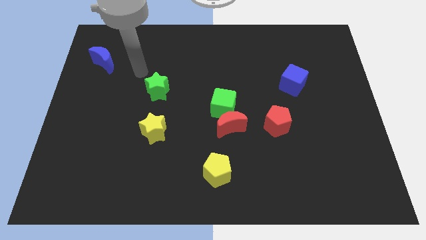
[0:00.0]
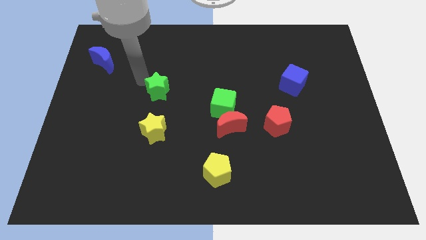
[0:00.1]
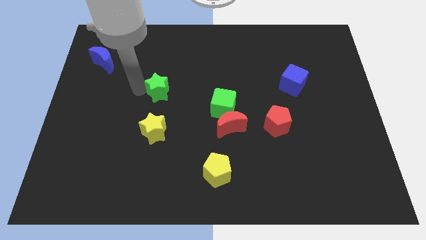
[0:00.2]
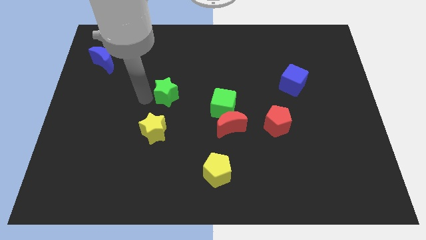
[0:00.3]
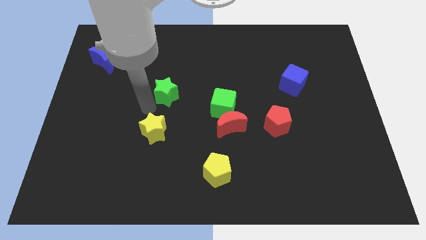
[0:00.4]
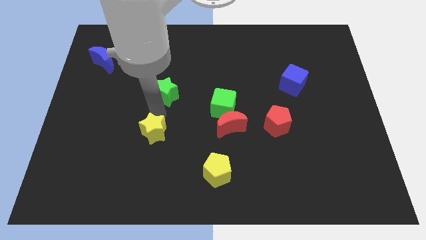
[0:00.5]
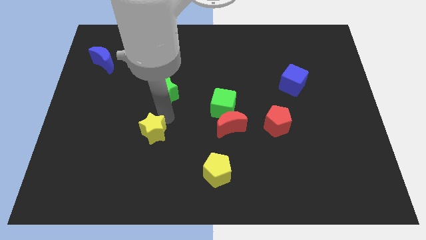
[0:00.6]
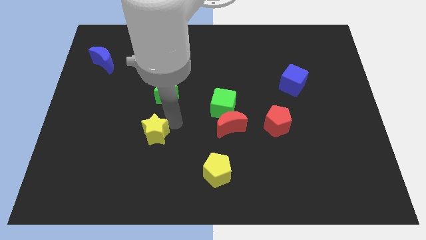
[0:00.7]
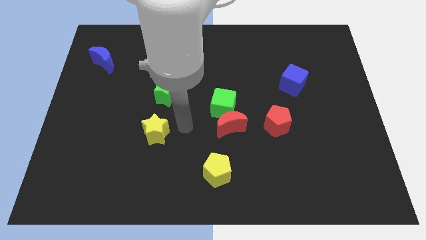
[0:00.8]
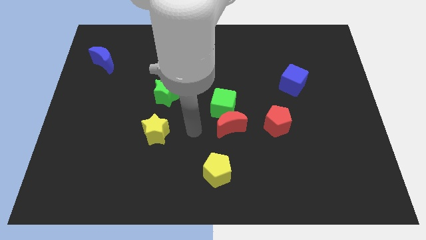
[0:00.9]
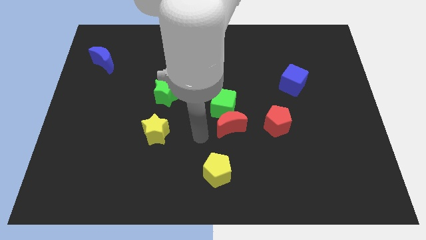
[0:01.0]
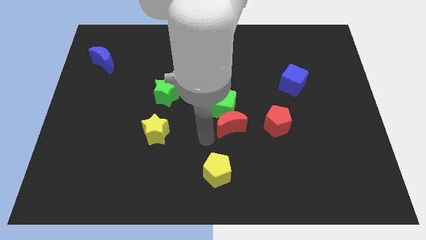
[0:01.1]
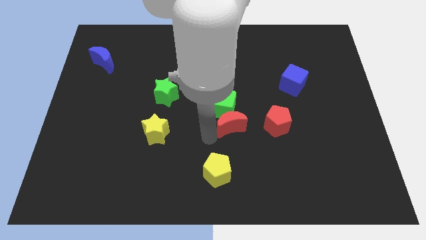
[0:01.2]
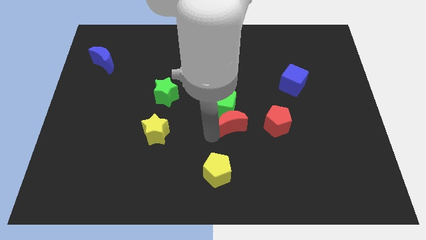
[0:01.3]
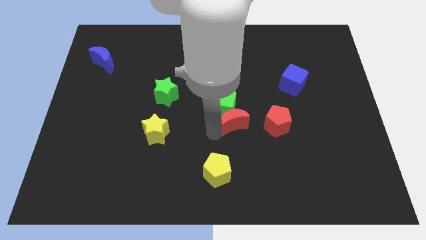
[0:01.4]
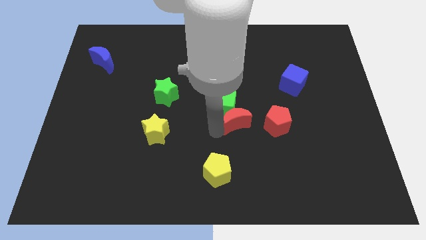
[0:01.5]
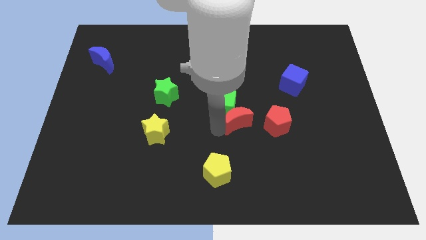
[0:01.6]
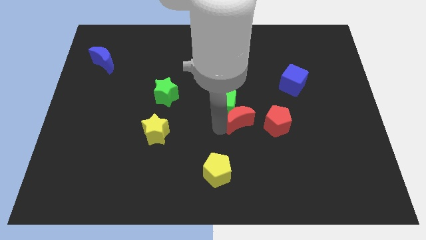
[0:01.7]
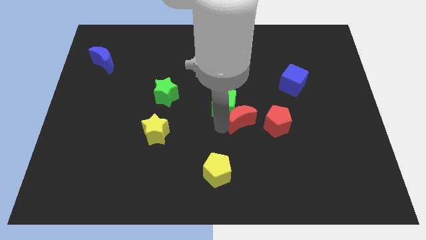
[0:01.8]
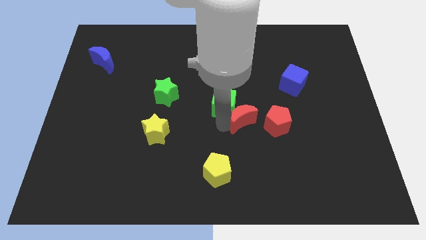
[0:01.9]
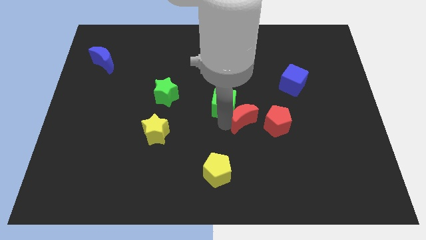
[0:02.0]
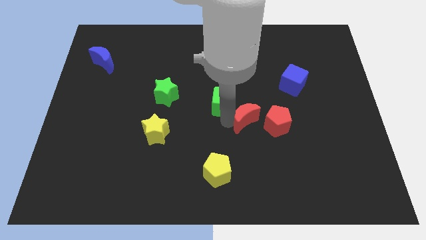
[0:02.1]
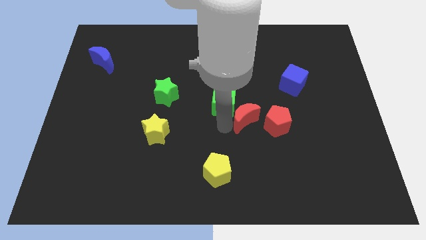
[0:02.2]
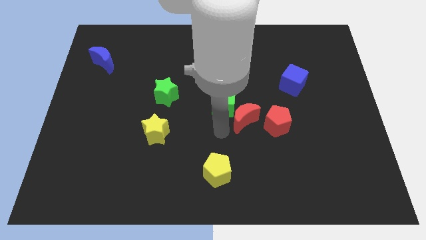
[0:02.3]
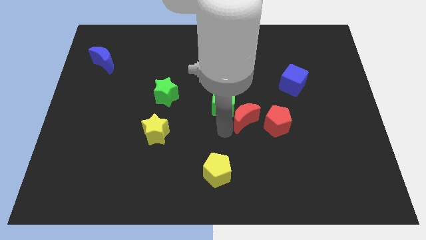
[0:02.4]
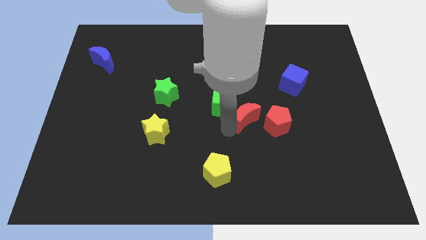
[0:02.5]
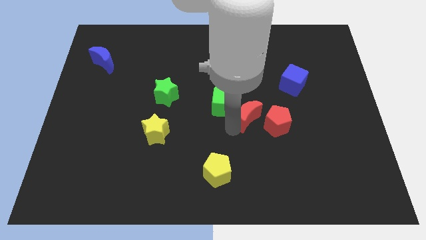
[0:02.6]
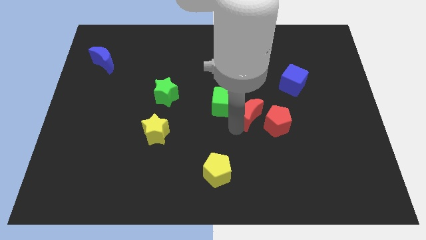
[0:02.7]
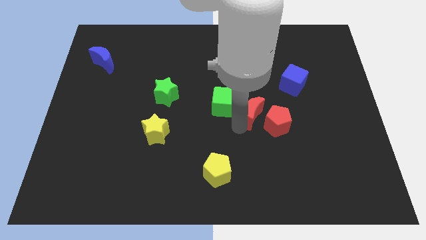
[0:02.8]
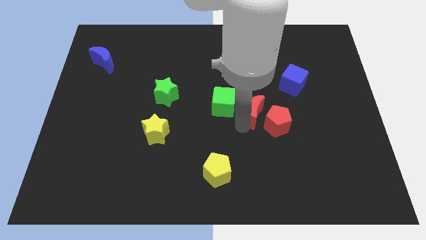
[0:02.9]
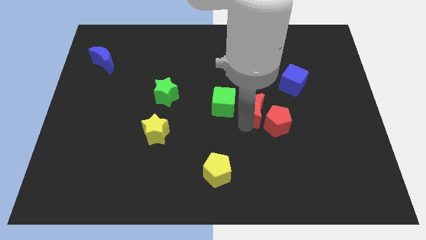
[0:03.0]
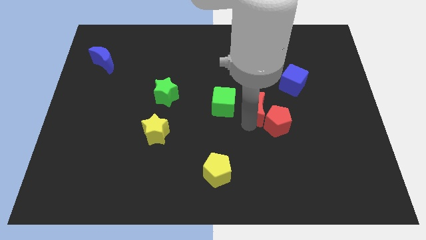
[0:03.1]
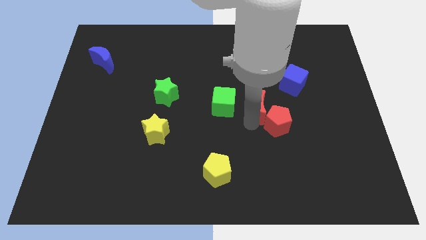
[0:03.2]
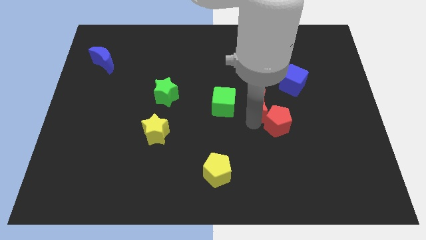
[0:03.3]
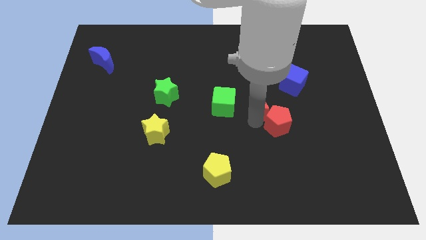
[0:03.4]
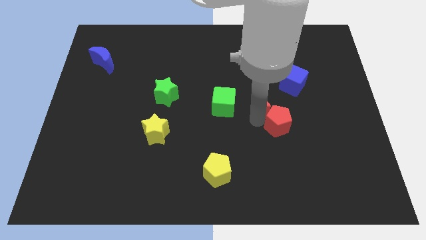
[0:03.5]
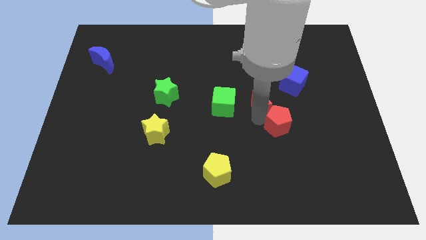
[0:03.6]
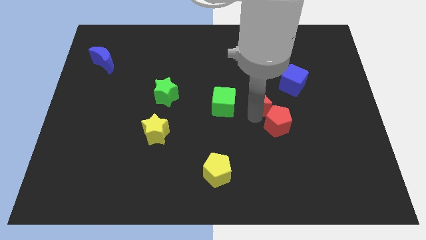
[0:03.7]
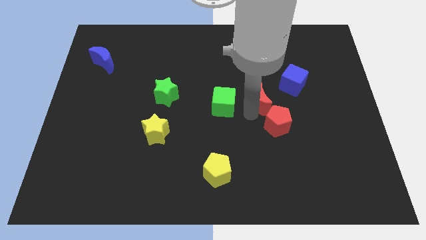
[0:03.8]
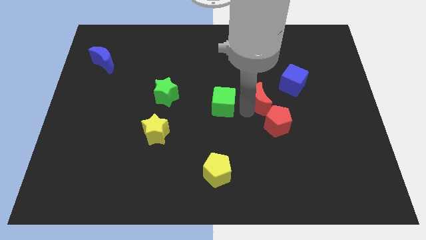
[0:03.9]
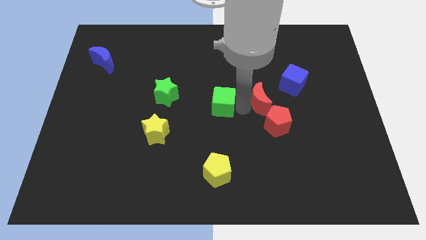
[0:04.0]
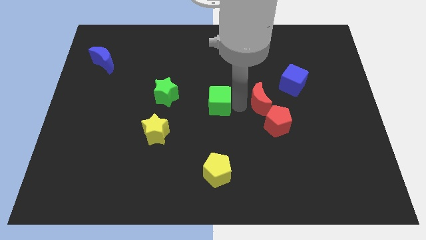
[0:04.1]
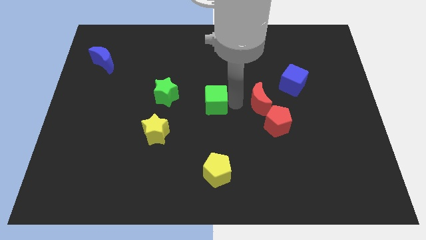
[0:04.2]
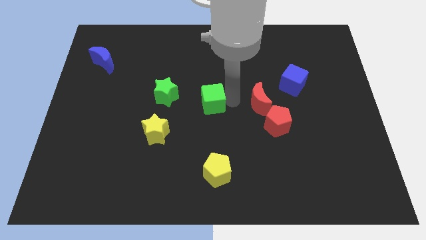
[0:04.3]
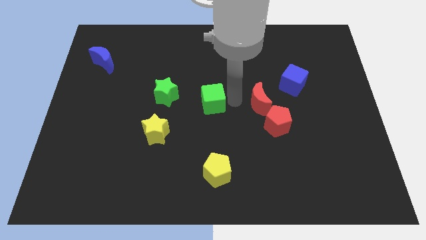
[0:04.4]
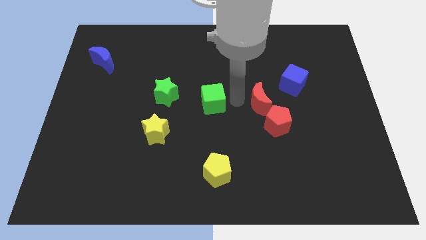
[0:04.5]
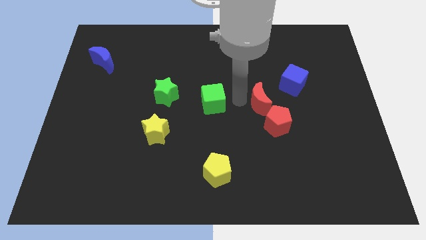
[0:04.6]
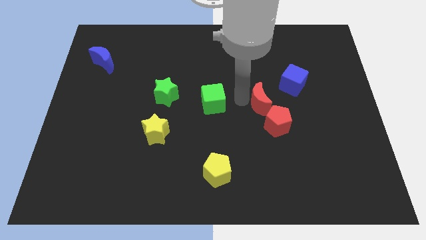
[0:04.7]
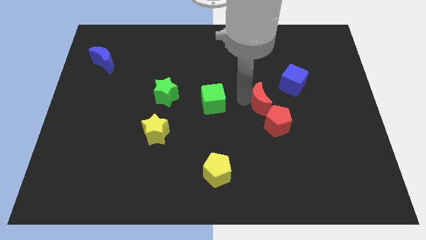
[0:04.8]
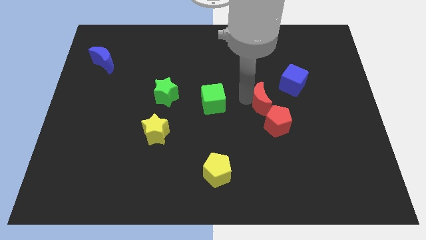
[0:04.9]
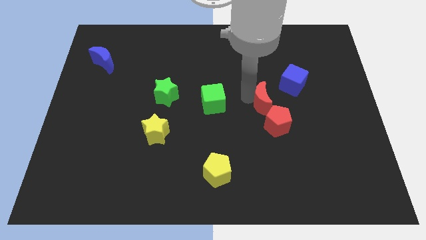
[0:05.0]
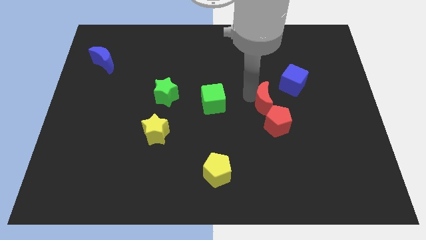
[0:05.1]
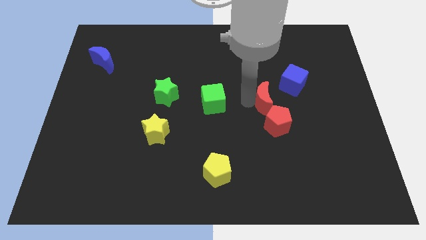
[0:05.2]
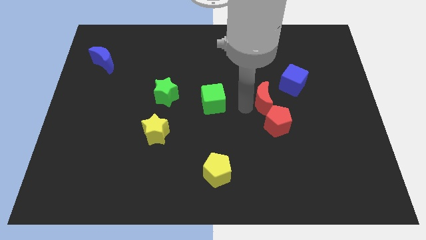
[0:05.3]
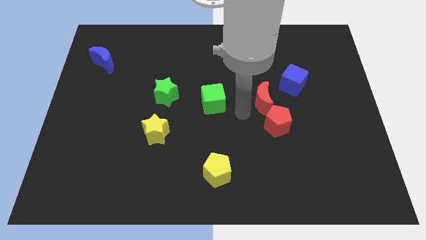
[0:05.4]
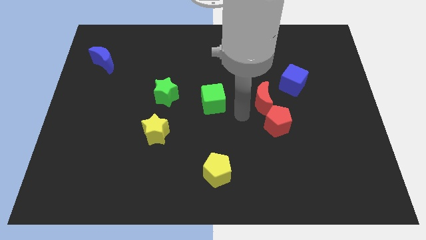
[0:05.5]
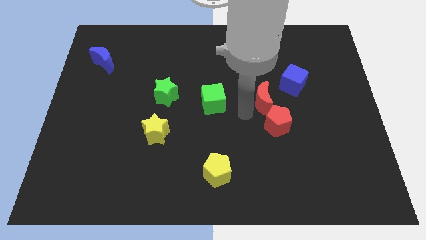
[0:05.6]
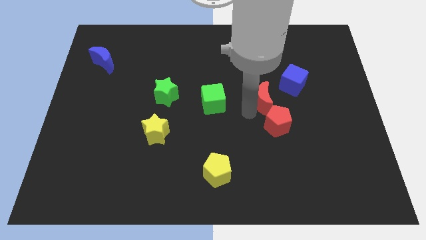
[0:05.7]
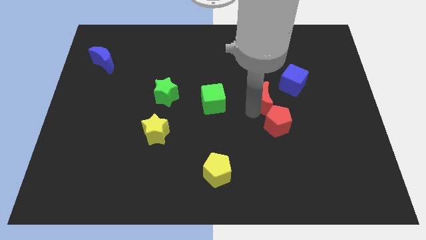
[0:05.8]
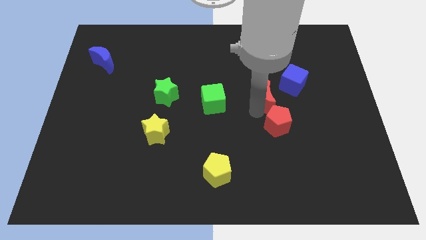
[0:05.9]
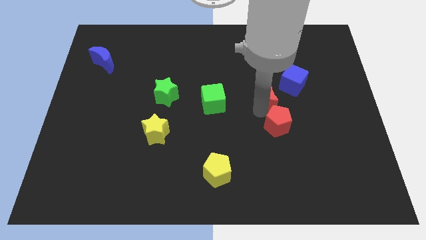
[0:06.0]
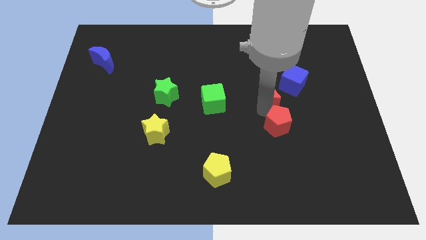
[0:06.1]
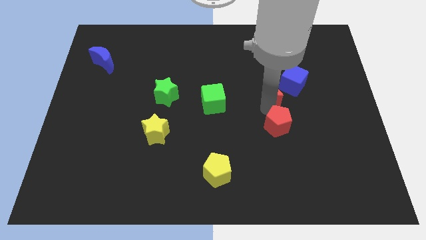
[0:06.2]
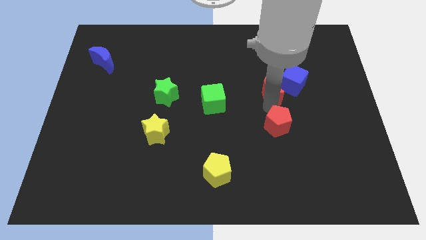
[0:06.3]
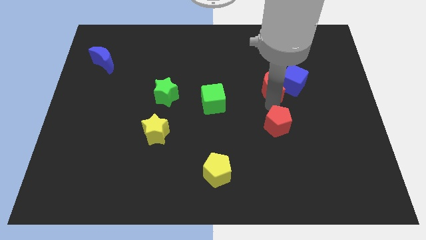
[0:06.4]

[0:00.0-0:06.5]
put the red moon towards the blue cube
